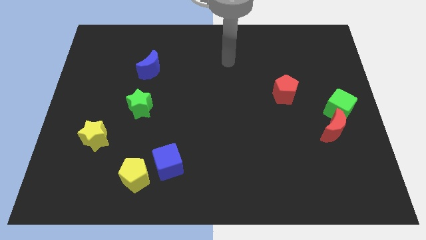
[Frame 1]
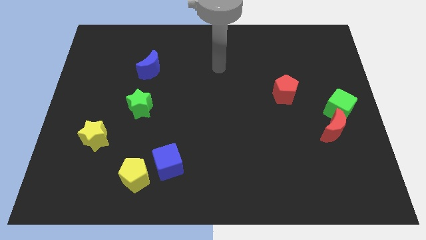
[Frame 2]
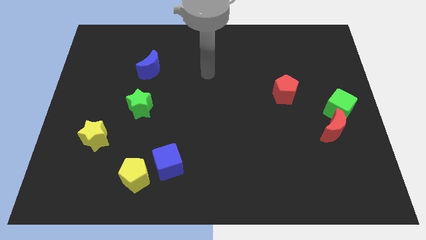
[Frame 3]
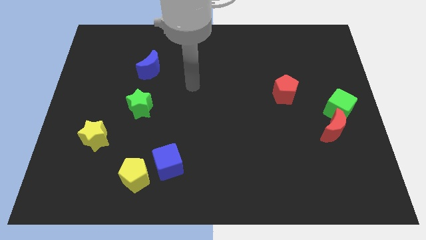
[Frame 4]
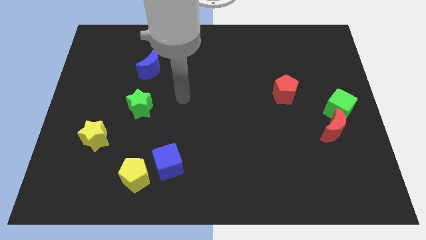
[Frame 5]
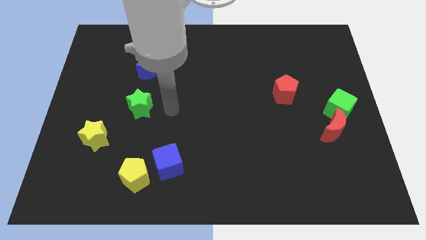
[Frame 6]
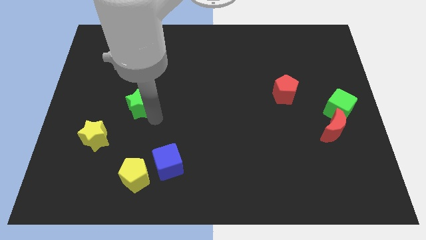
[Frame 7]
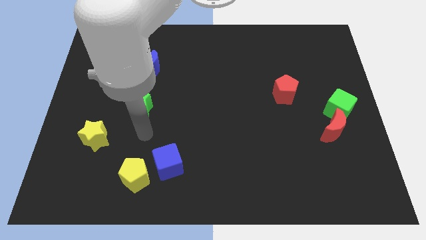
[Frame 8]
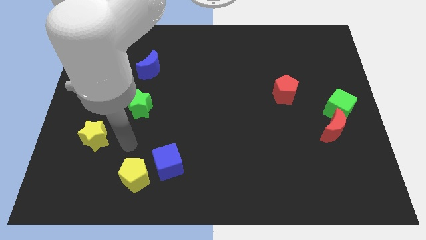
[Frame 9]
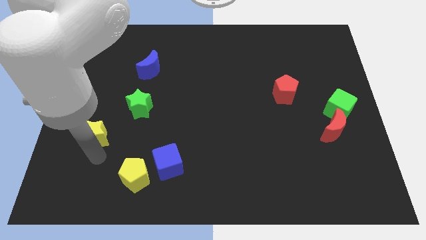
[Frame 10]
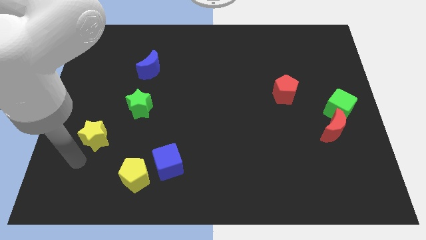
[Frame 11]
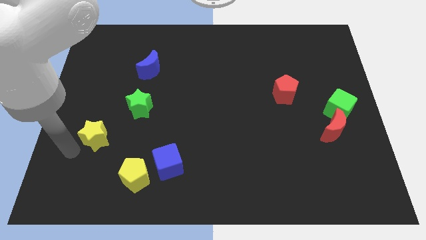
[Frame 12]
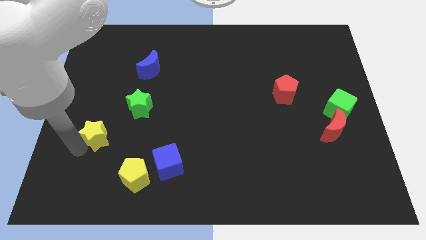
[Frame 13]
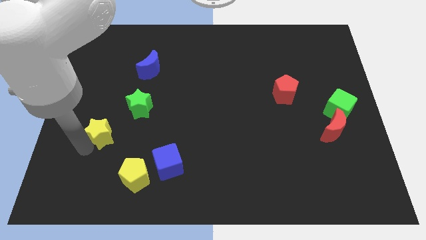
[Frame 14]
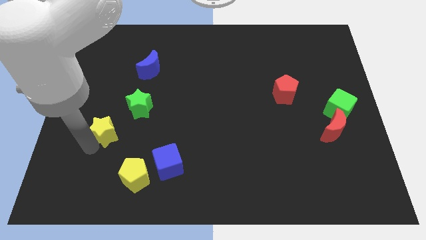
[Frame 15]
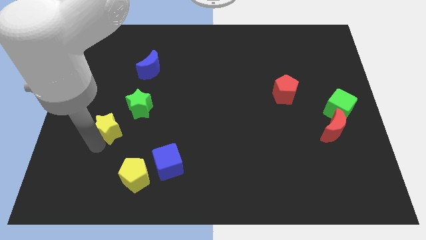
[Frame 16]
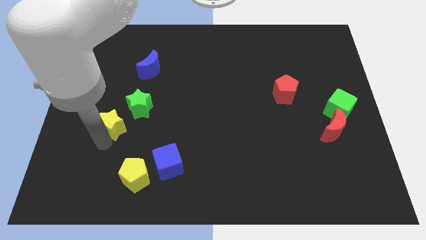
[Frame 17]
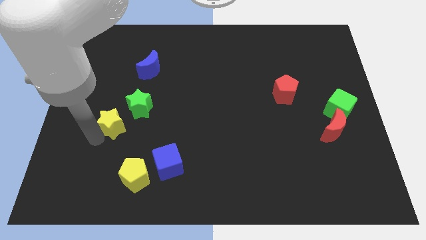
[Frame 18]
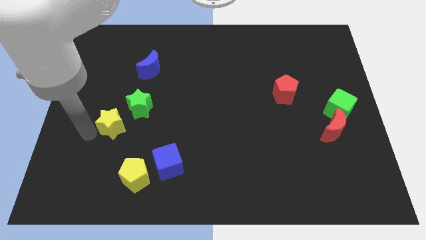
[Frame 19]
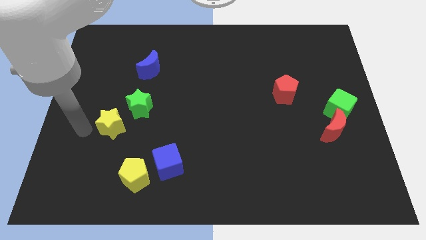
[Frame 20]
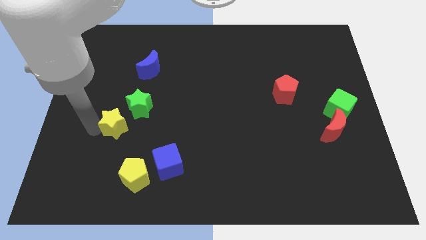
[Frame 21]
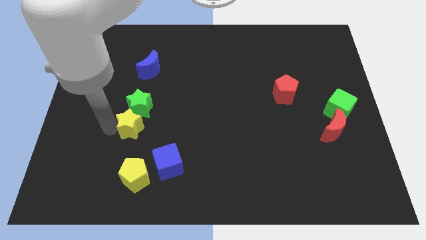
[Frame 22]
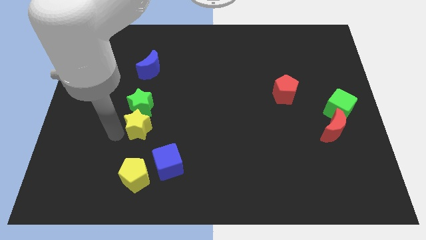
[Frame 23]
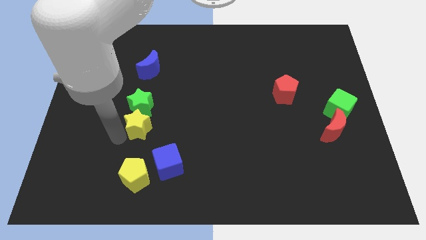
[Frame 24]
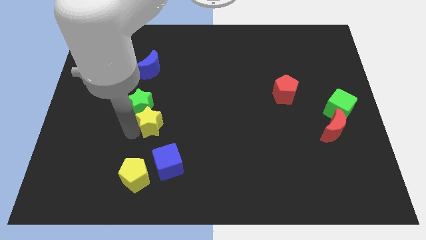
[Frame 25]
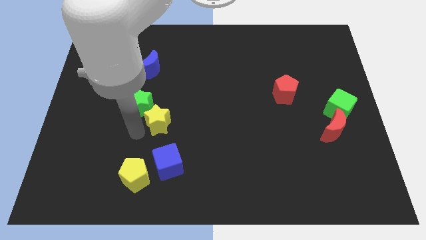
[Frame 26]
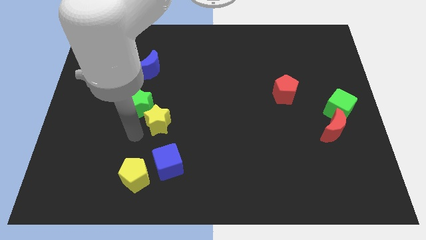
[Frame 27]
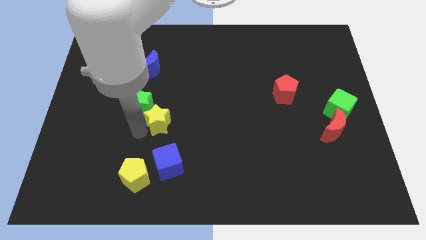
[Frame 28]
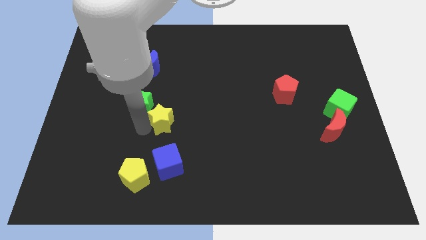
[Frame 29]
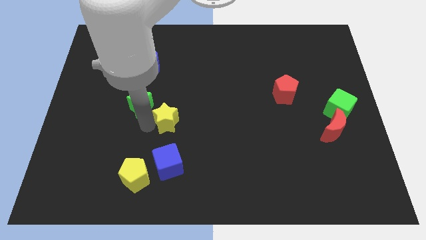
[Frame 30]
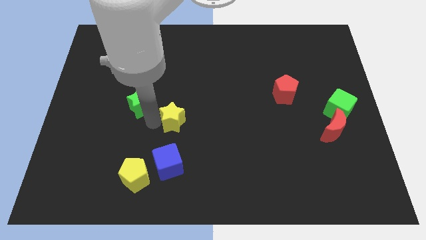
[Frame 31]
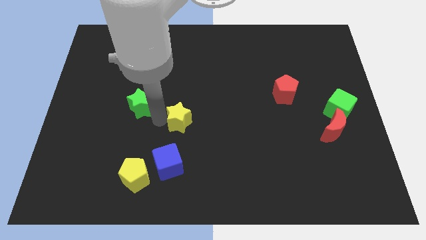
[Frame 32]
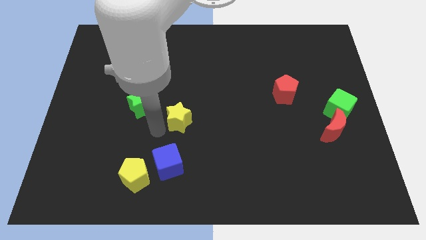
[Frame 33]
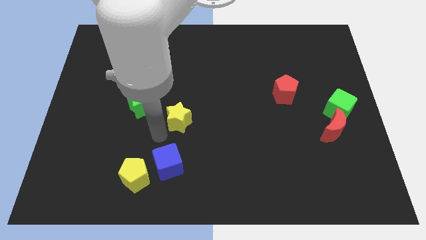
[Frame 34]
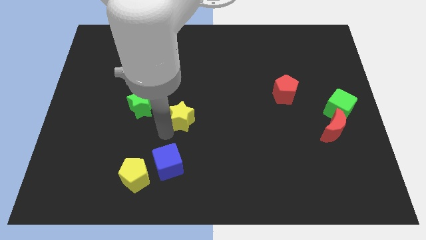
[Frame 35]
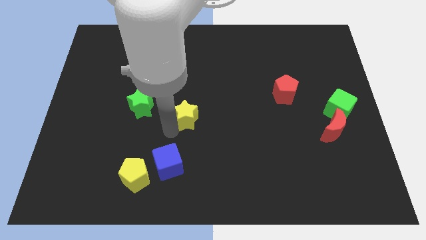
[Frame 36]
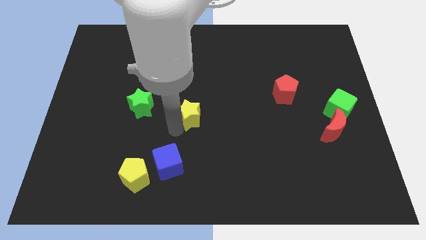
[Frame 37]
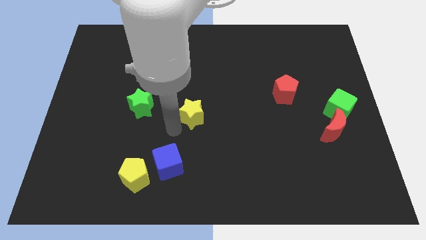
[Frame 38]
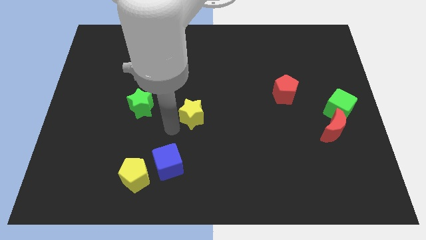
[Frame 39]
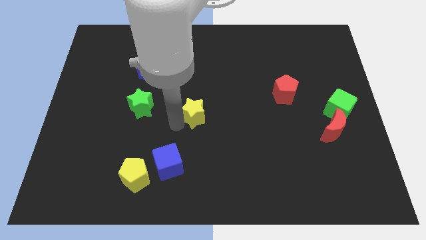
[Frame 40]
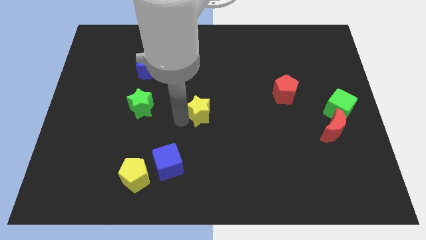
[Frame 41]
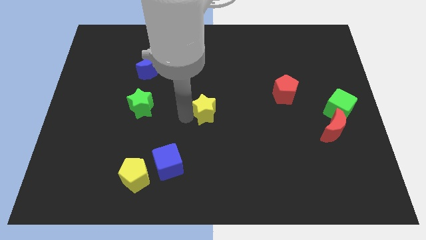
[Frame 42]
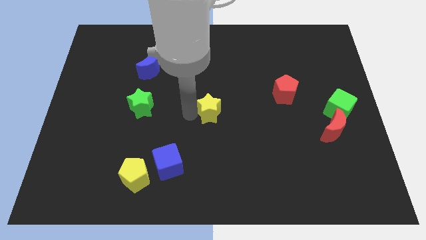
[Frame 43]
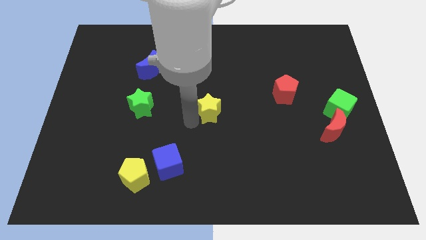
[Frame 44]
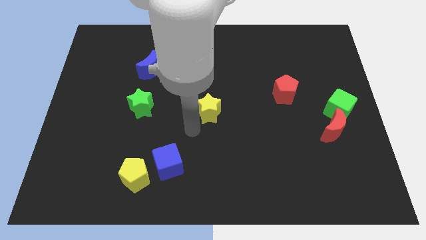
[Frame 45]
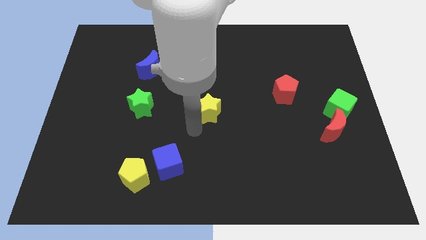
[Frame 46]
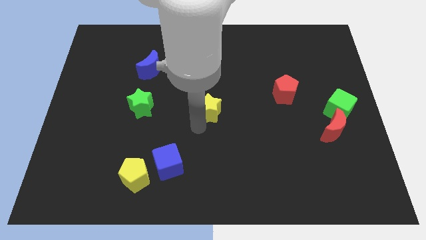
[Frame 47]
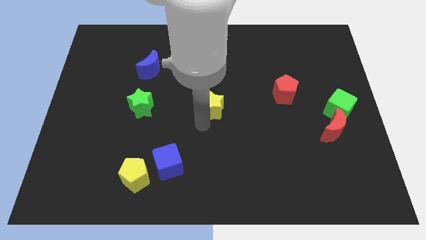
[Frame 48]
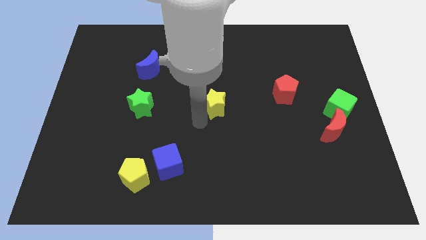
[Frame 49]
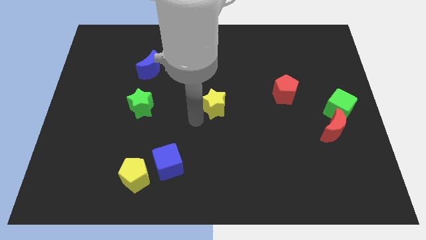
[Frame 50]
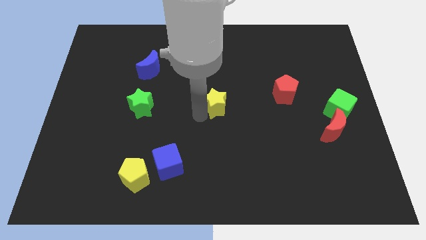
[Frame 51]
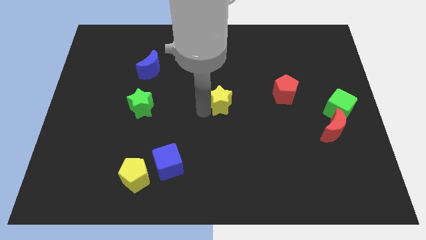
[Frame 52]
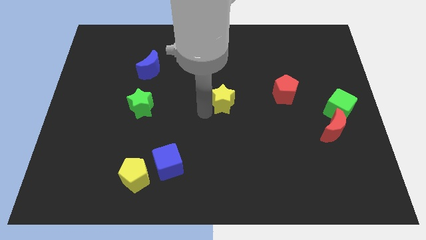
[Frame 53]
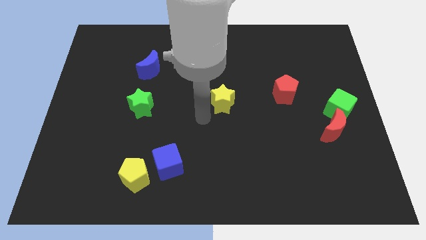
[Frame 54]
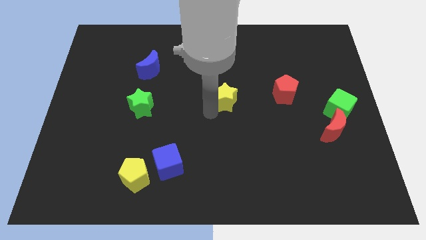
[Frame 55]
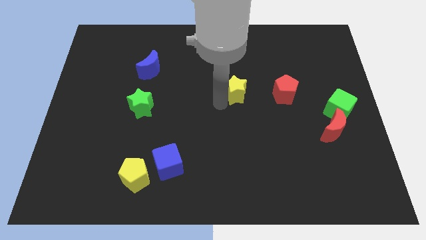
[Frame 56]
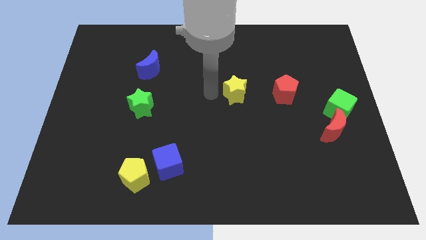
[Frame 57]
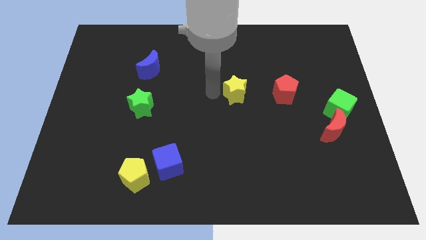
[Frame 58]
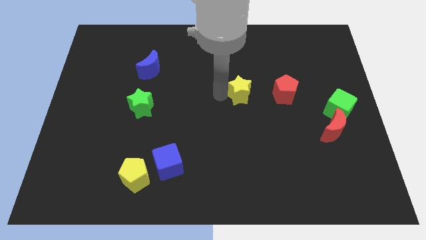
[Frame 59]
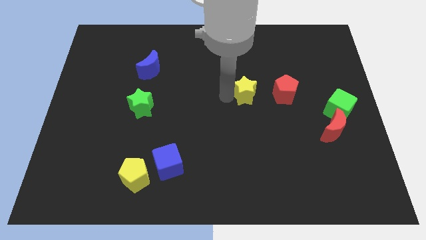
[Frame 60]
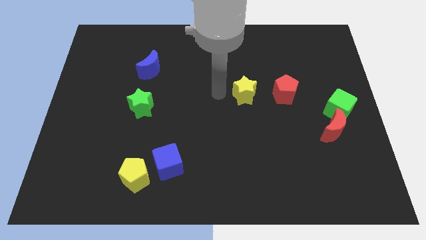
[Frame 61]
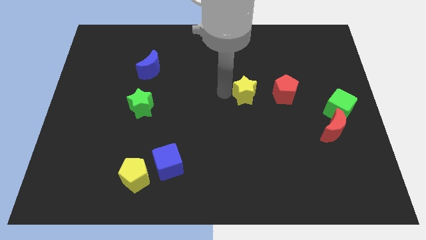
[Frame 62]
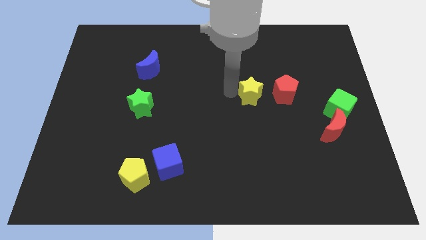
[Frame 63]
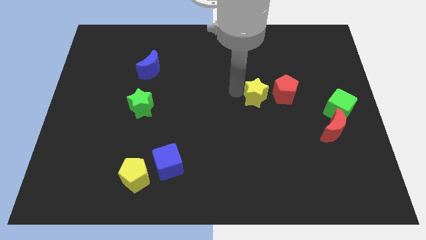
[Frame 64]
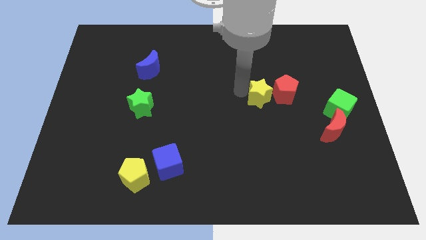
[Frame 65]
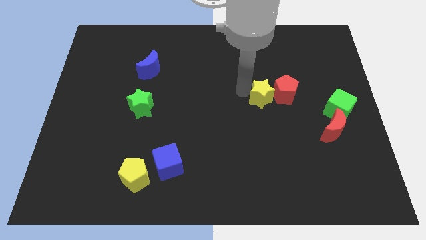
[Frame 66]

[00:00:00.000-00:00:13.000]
move the yellow star next to the red pentagon

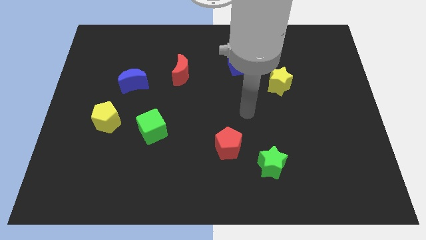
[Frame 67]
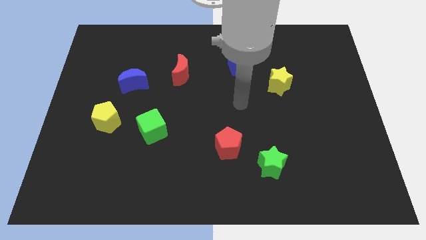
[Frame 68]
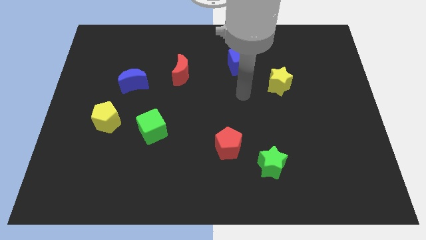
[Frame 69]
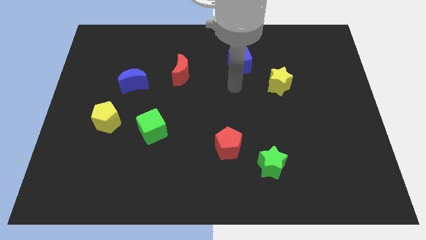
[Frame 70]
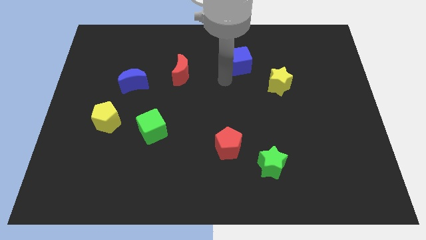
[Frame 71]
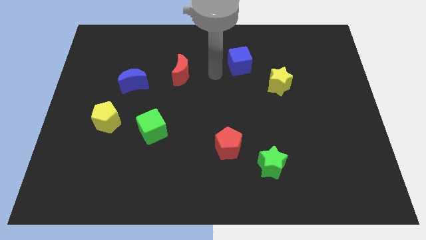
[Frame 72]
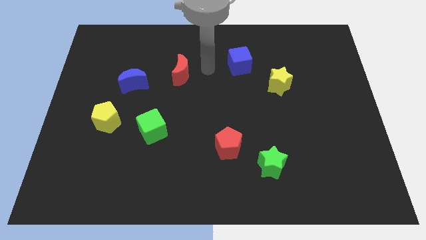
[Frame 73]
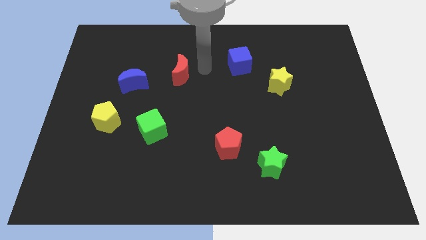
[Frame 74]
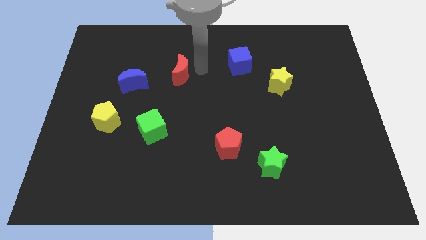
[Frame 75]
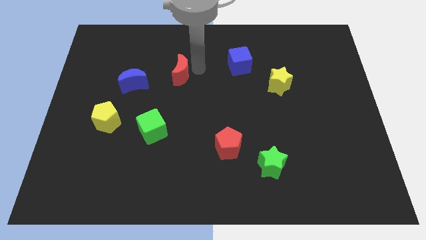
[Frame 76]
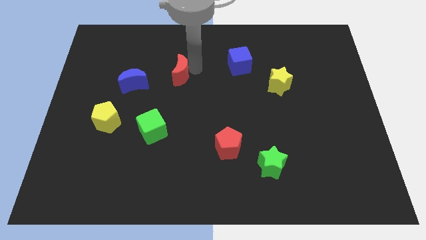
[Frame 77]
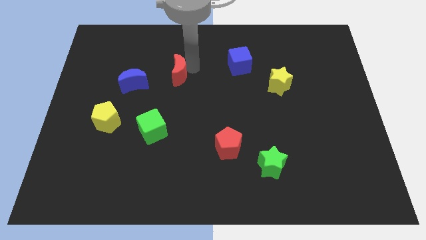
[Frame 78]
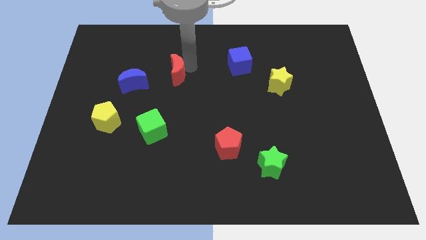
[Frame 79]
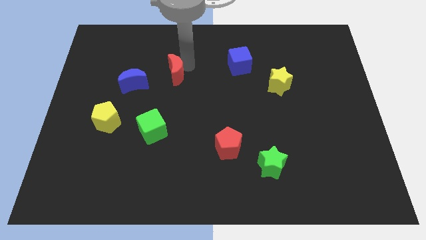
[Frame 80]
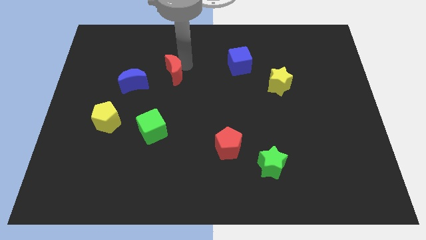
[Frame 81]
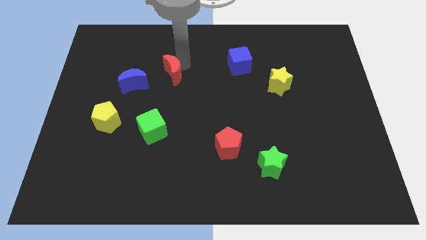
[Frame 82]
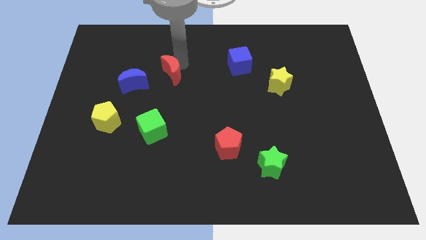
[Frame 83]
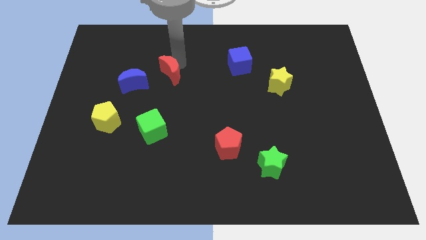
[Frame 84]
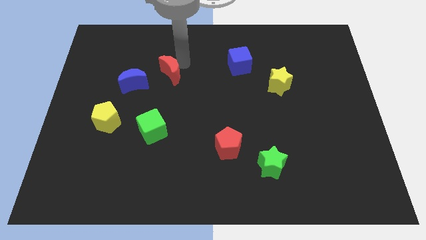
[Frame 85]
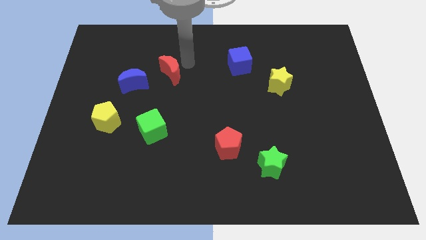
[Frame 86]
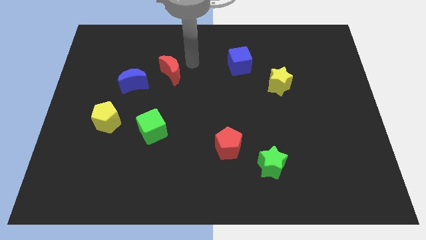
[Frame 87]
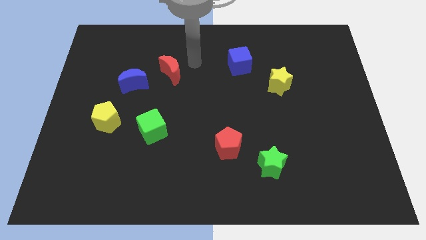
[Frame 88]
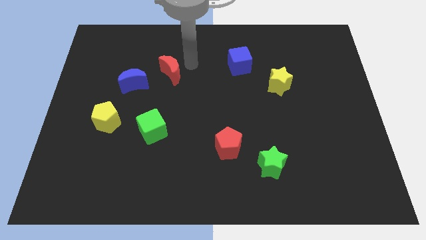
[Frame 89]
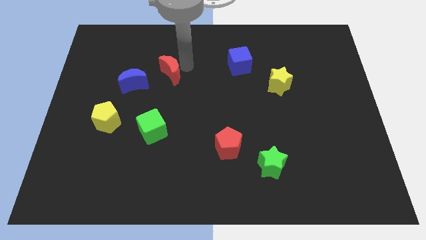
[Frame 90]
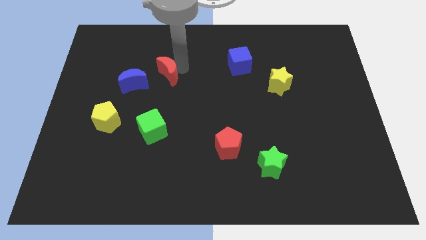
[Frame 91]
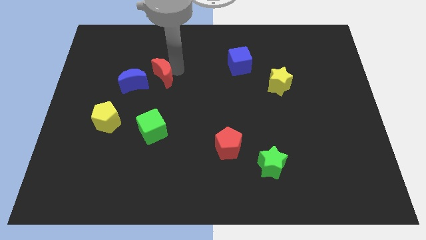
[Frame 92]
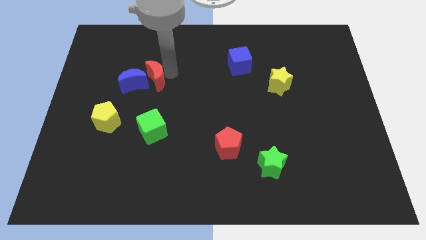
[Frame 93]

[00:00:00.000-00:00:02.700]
put the red moon towards the blue moon
